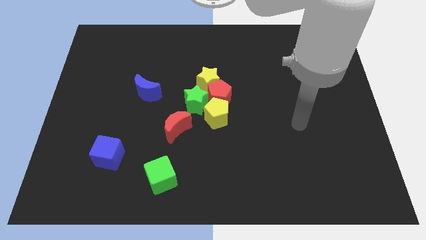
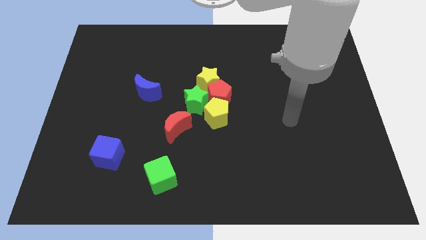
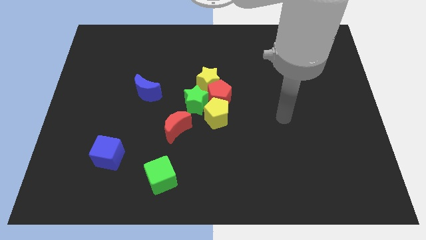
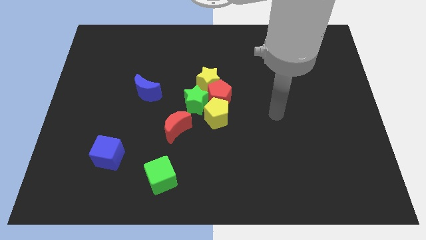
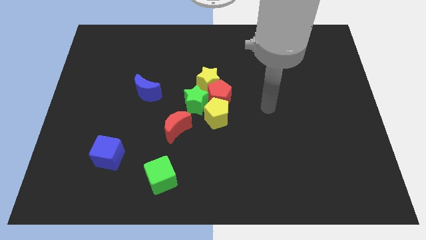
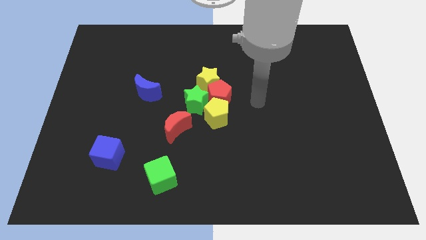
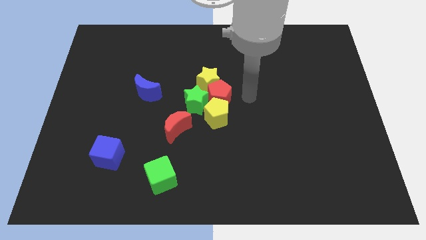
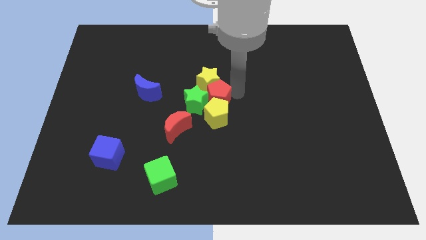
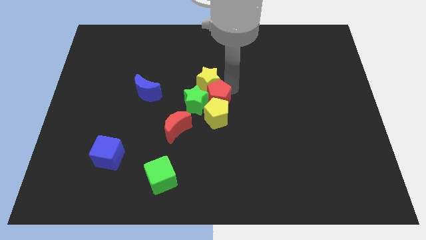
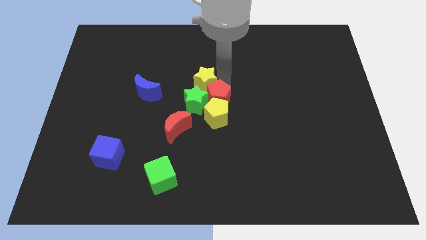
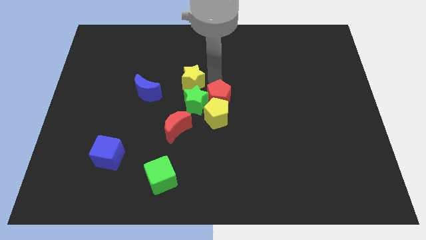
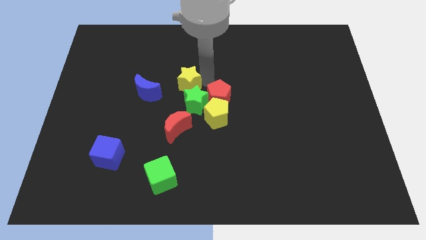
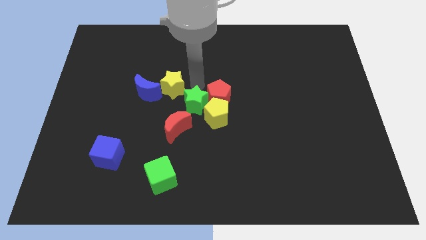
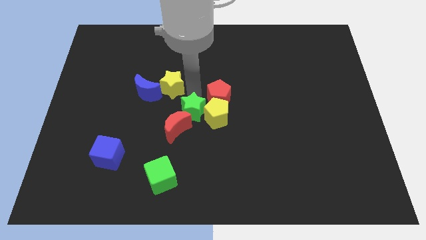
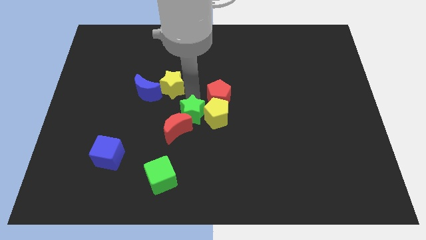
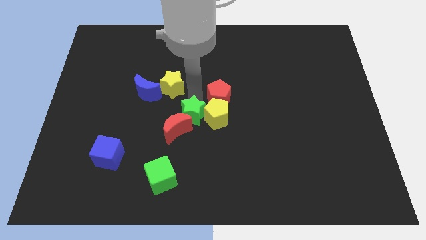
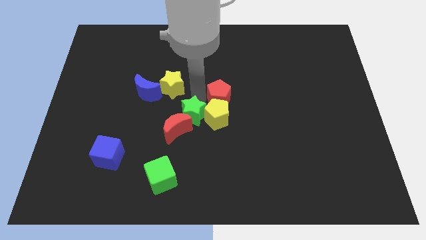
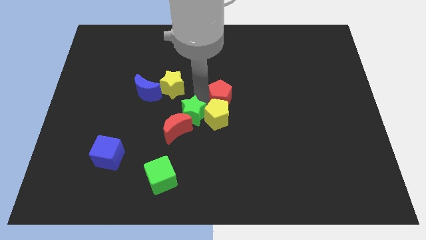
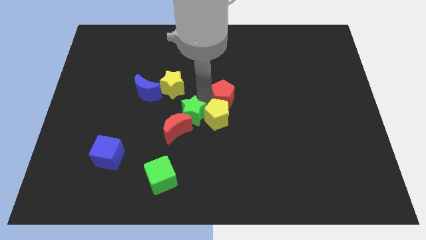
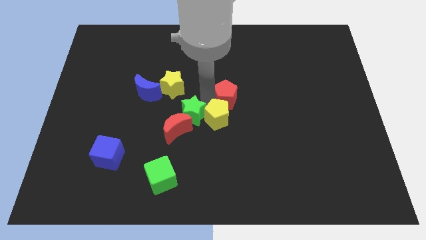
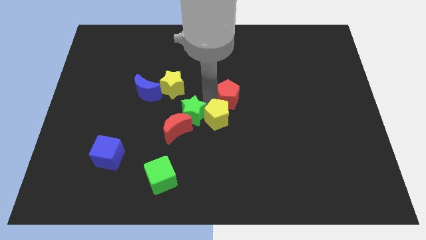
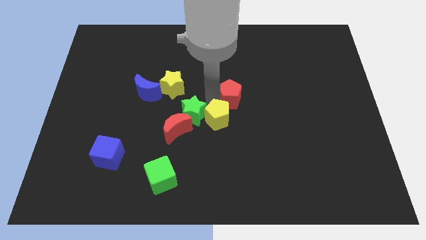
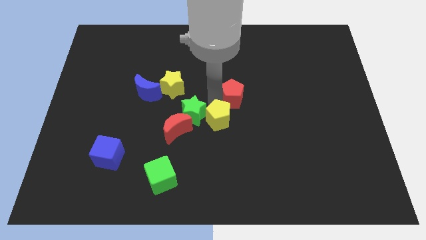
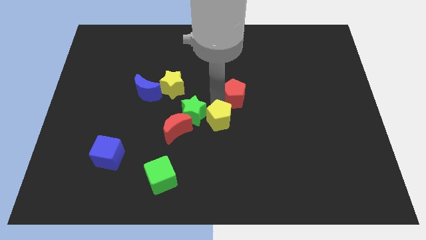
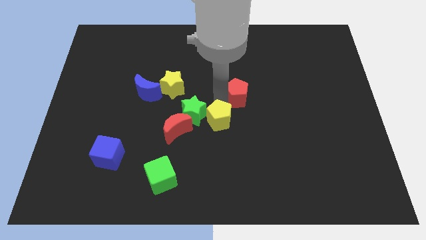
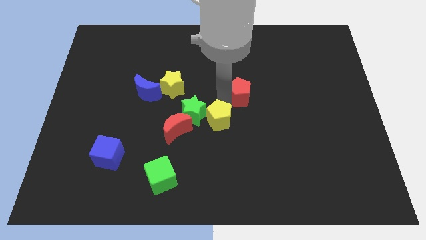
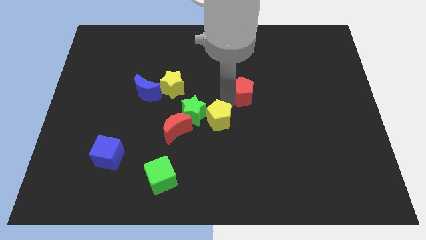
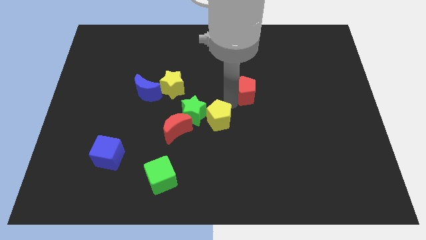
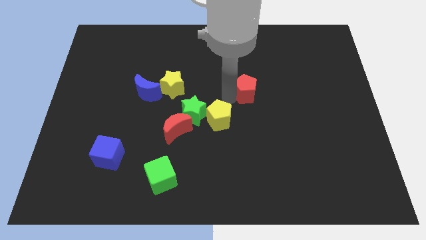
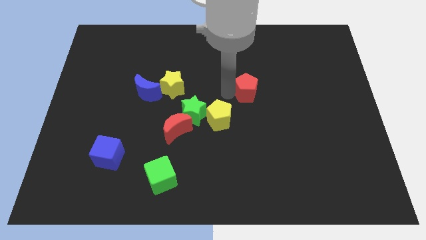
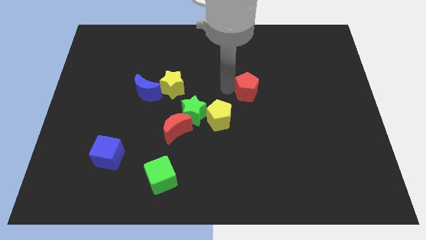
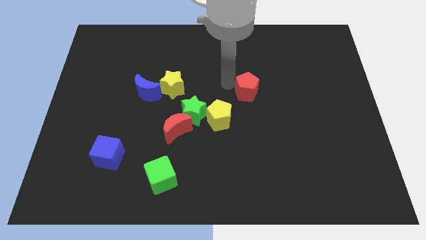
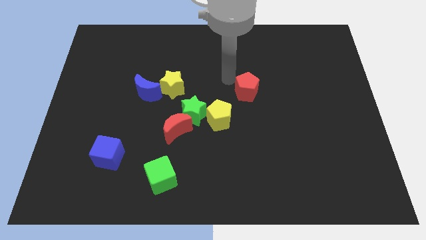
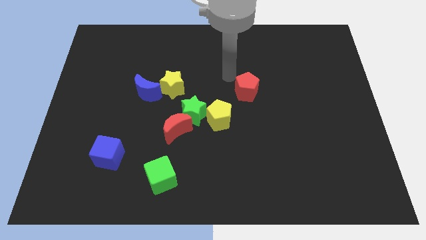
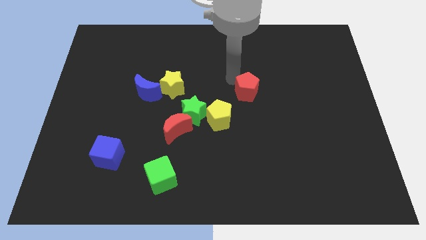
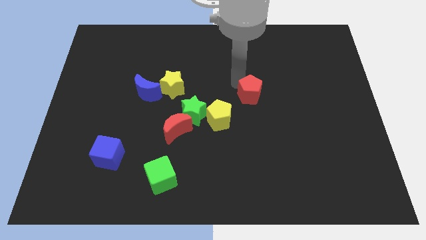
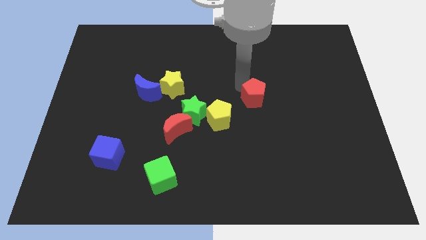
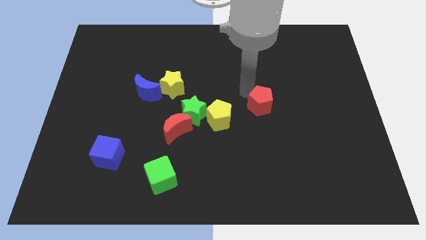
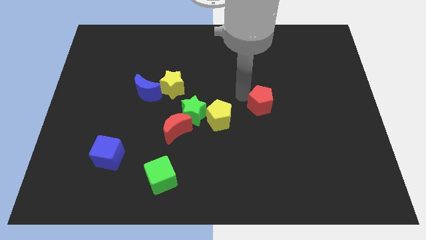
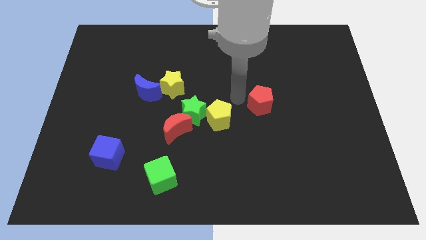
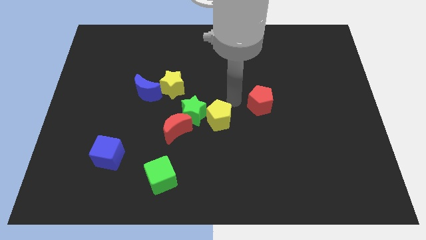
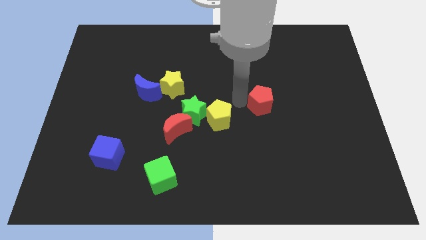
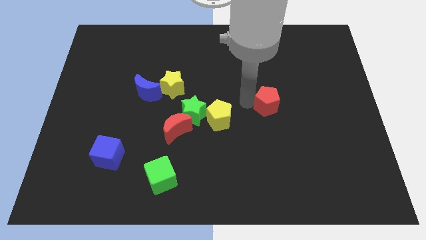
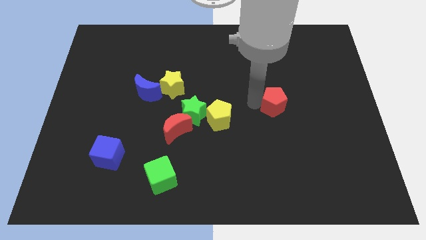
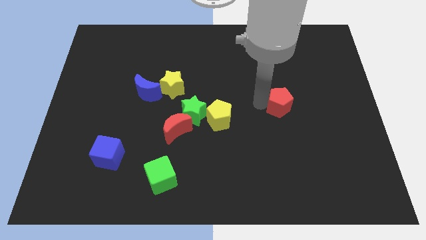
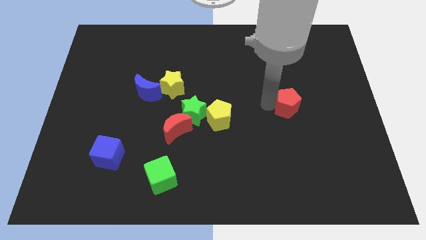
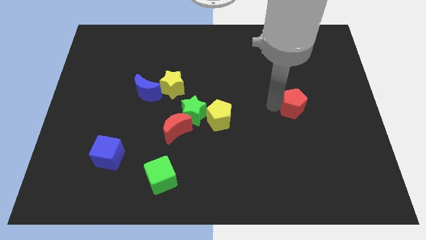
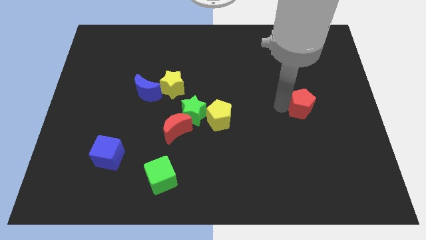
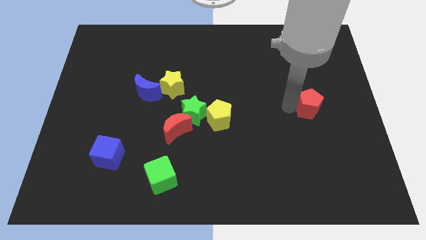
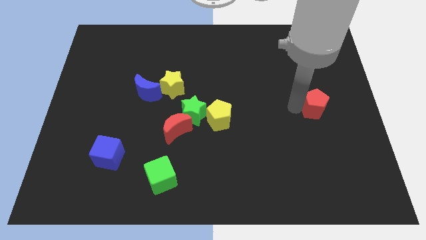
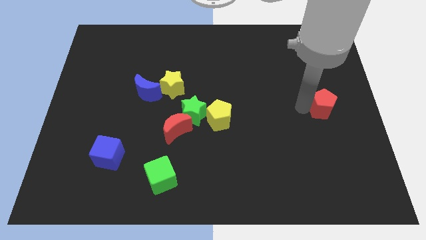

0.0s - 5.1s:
move the red pentagon to the center right

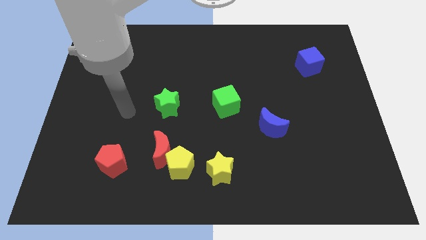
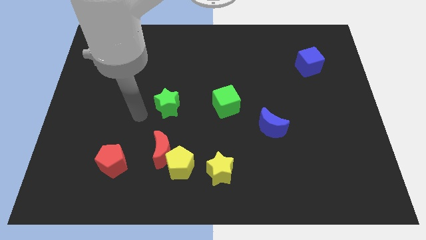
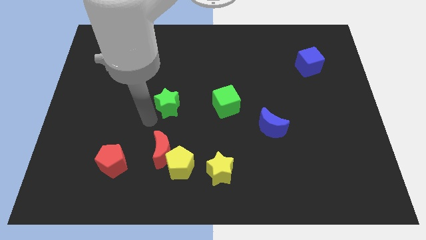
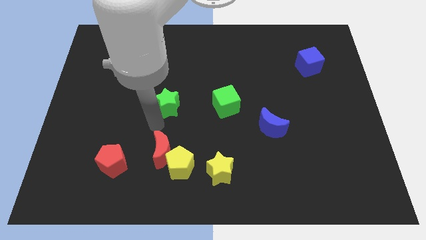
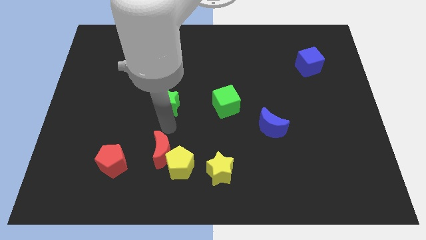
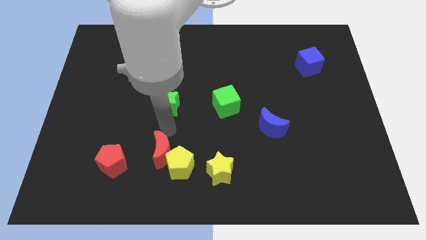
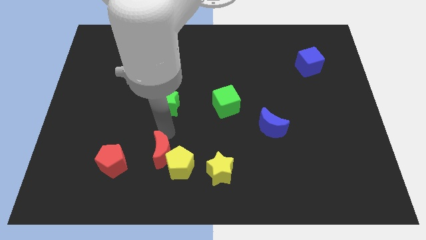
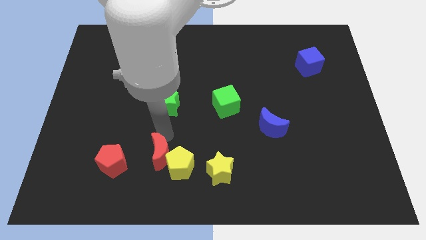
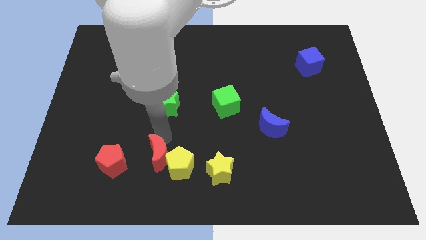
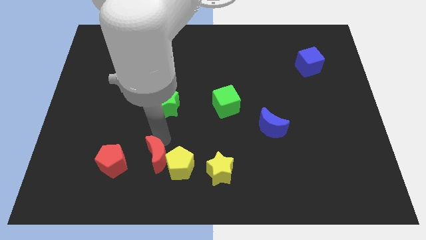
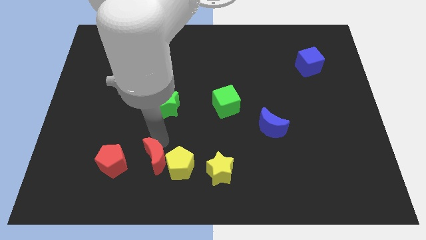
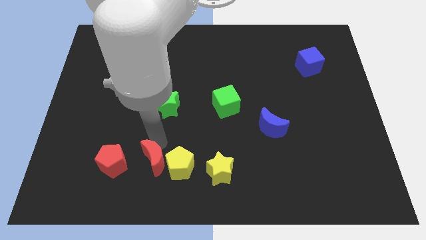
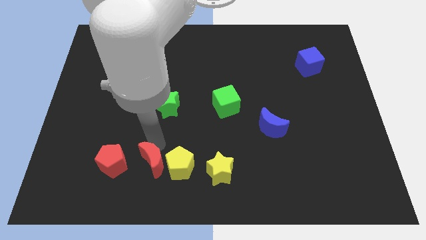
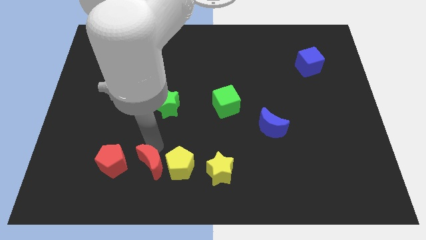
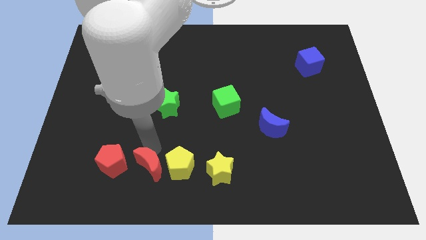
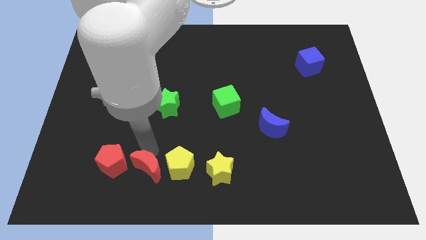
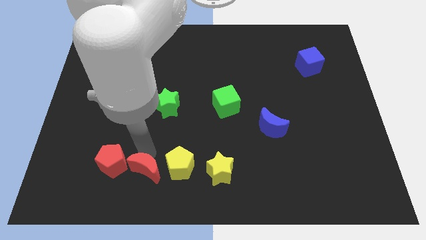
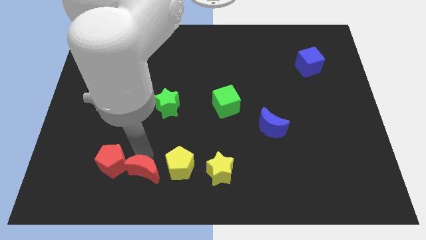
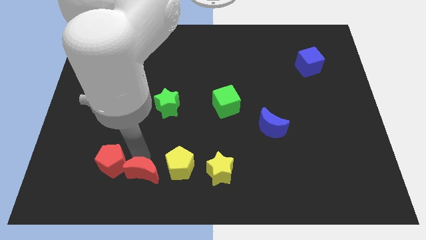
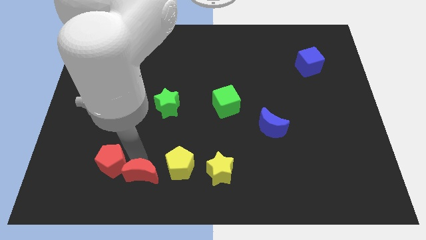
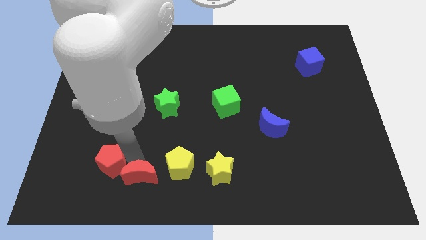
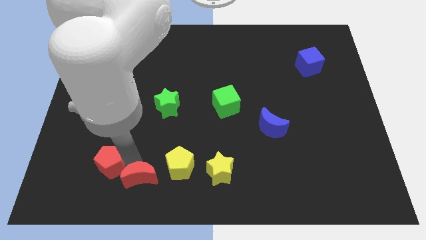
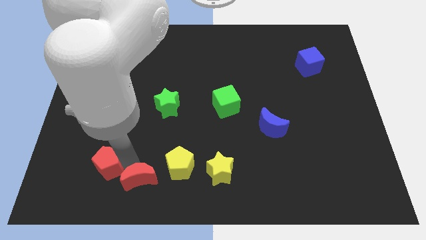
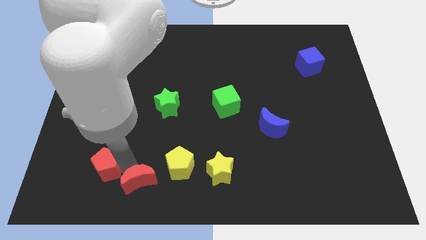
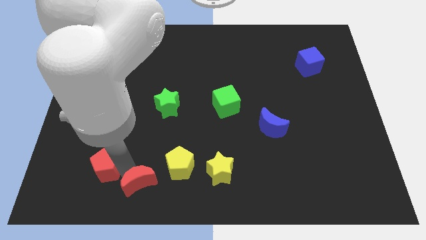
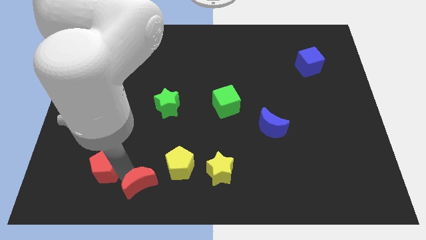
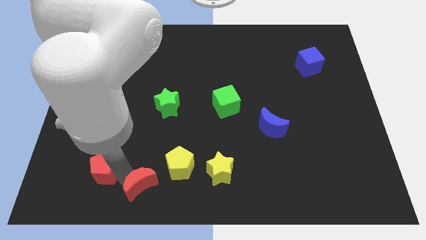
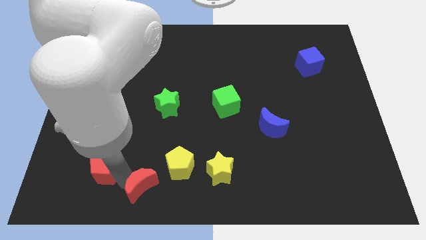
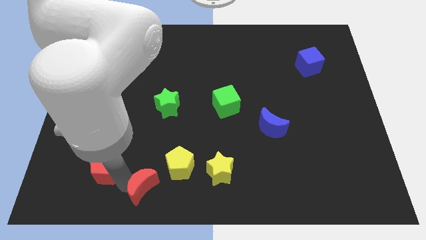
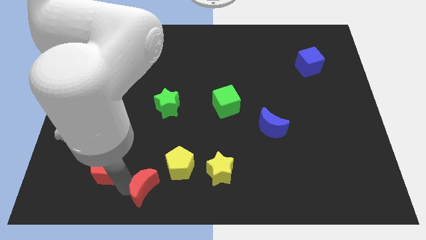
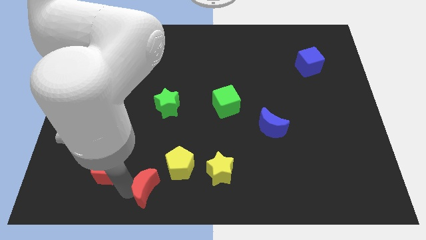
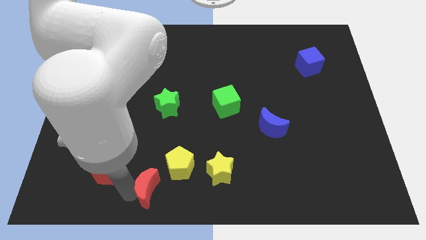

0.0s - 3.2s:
put the red moon to the bottom side
